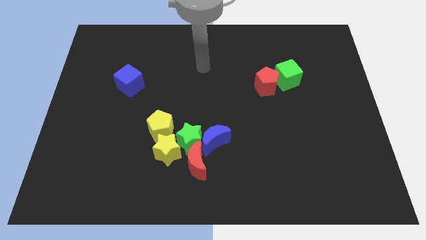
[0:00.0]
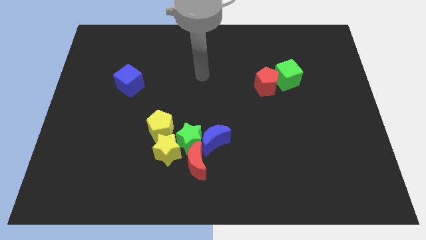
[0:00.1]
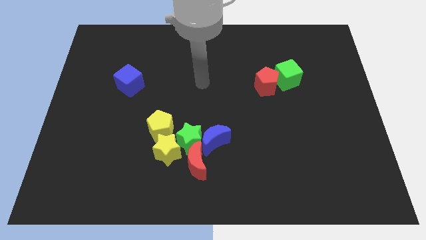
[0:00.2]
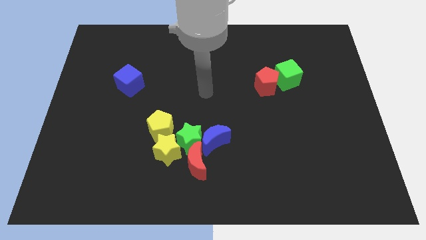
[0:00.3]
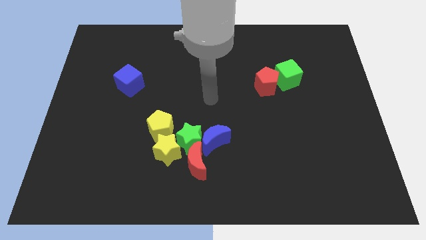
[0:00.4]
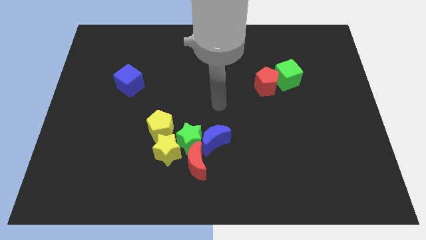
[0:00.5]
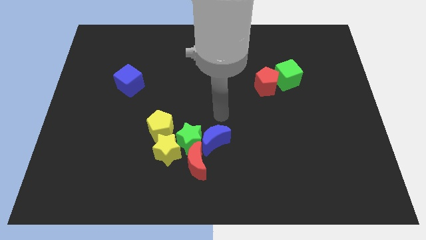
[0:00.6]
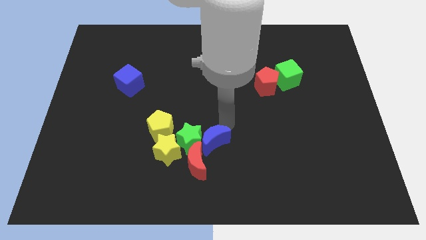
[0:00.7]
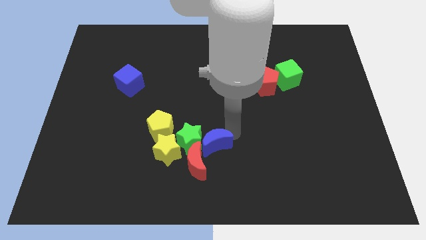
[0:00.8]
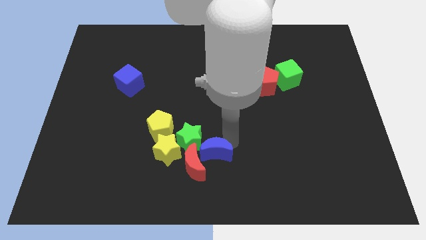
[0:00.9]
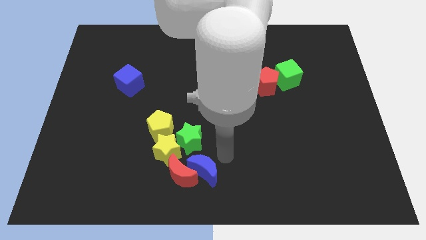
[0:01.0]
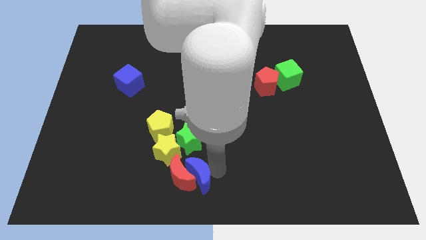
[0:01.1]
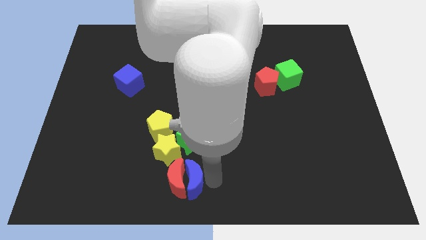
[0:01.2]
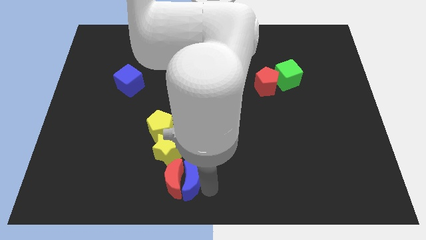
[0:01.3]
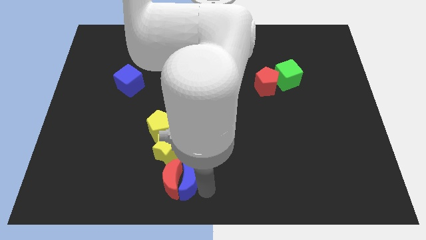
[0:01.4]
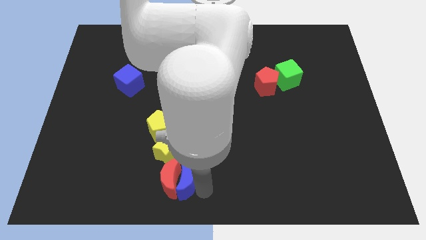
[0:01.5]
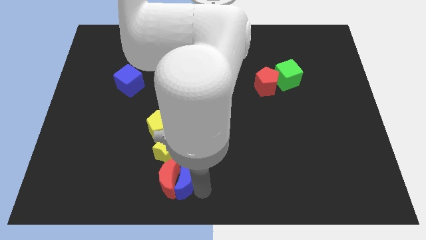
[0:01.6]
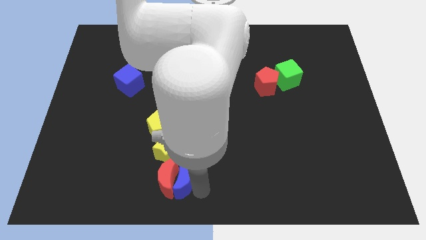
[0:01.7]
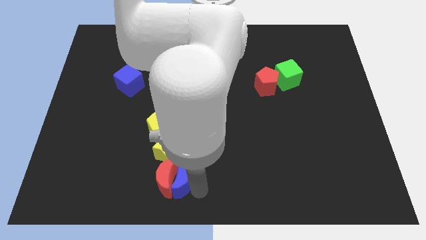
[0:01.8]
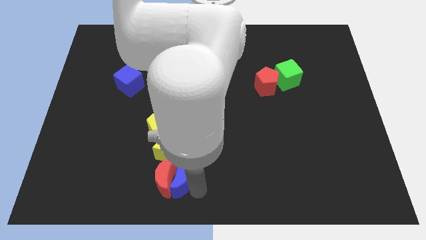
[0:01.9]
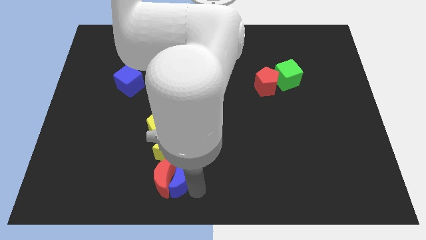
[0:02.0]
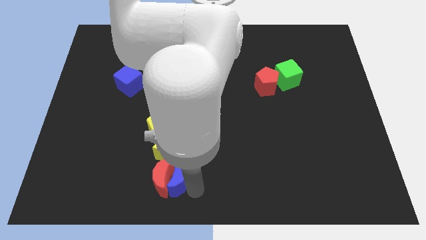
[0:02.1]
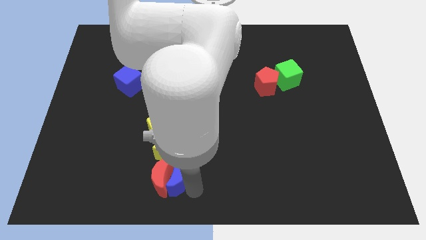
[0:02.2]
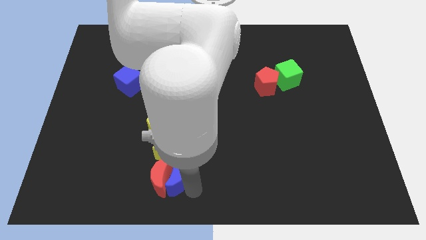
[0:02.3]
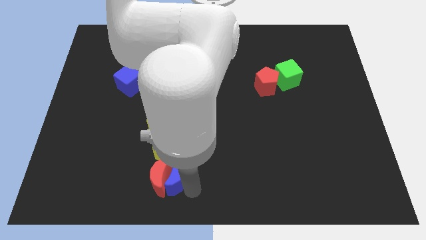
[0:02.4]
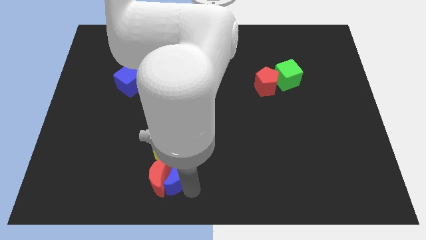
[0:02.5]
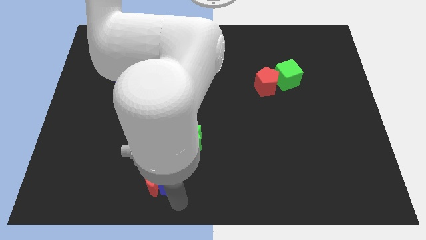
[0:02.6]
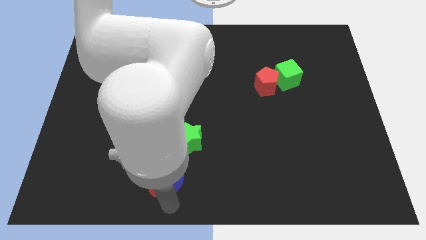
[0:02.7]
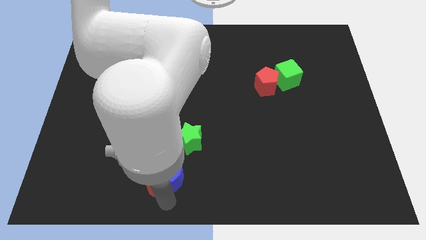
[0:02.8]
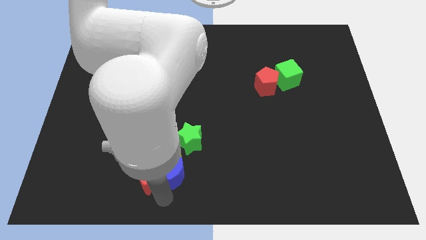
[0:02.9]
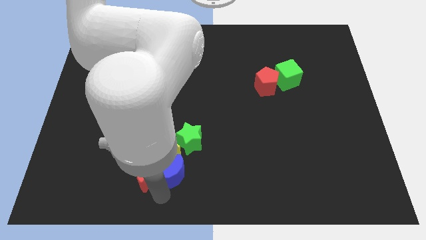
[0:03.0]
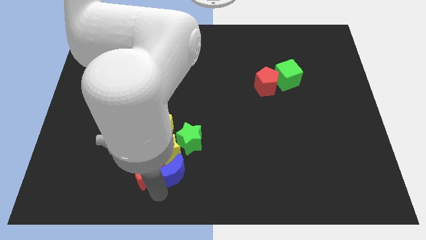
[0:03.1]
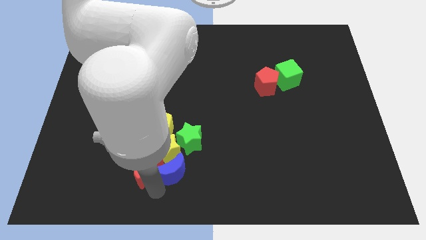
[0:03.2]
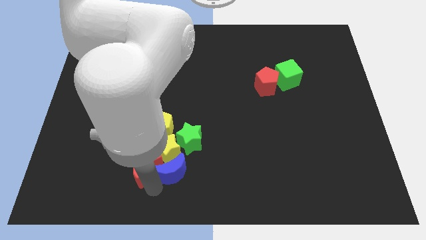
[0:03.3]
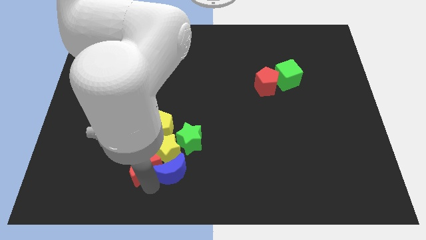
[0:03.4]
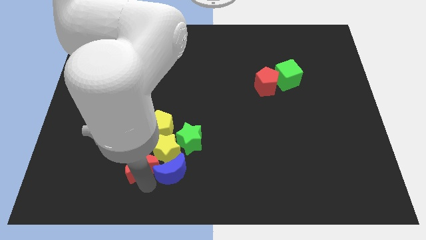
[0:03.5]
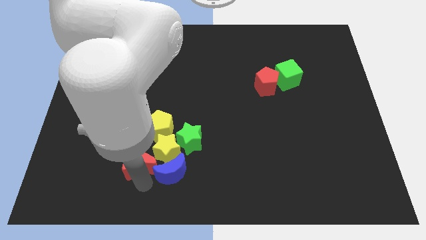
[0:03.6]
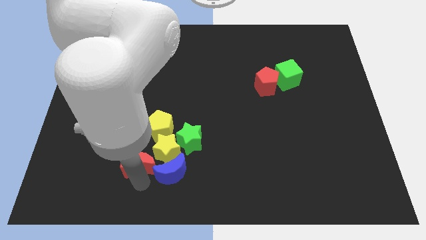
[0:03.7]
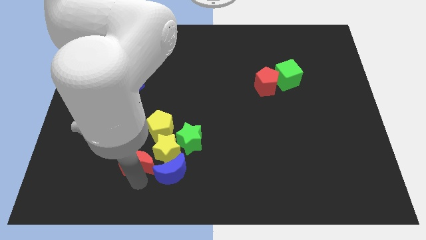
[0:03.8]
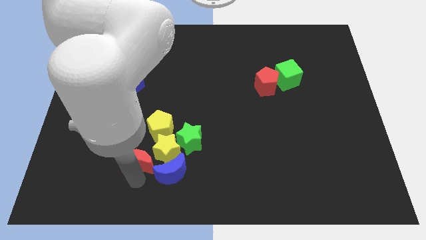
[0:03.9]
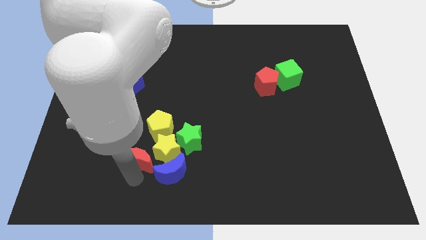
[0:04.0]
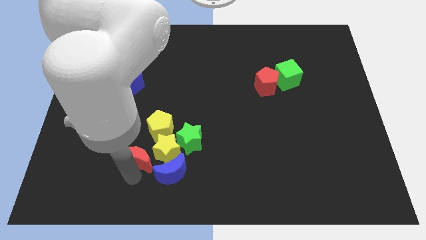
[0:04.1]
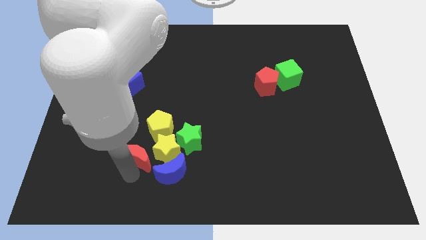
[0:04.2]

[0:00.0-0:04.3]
slightly move the red moon up and then left

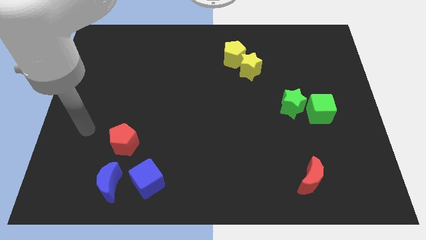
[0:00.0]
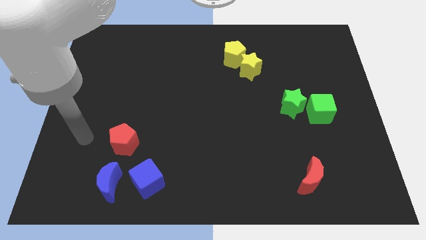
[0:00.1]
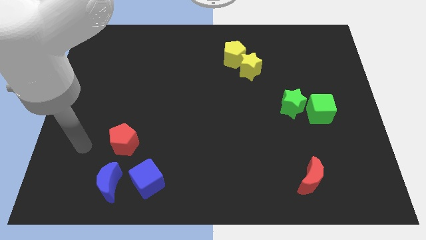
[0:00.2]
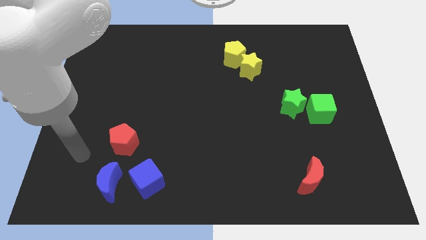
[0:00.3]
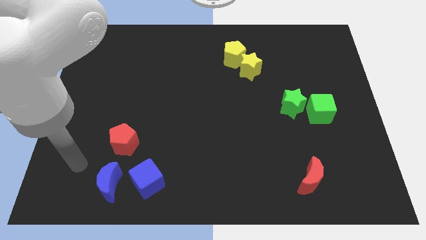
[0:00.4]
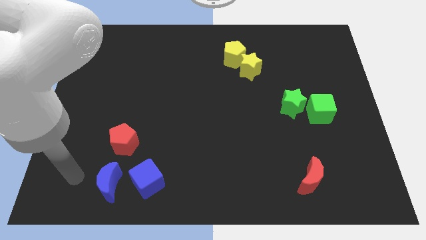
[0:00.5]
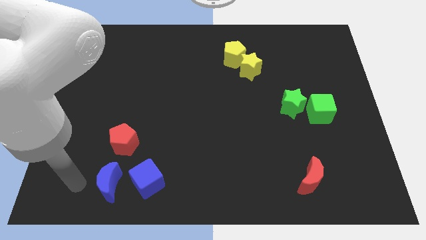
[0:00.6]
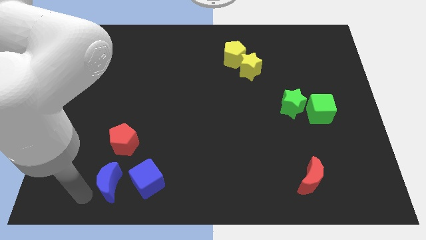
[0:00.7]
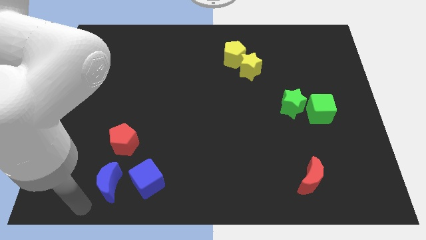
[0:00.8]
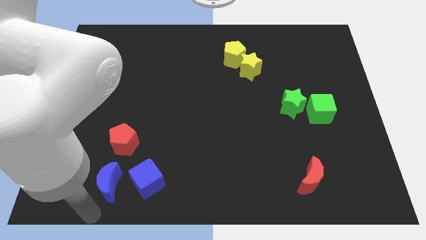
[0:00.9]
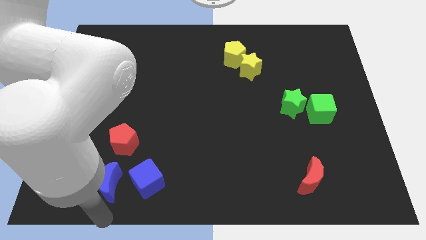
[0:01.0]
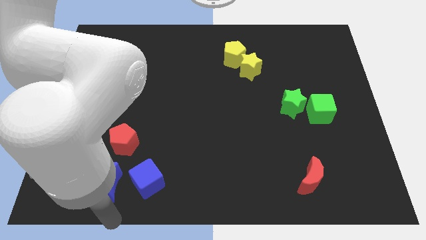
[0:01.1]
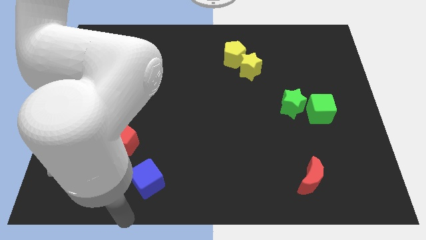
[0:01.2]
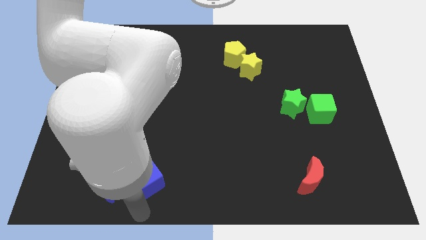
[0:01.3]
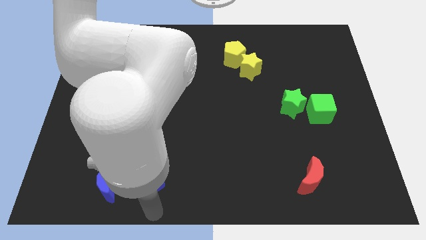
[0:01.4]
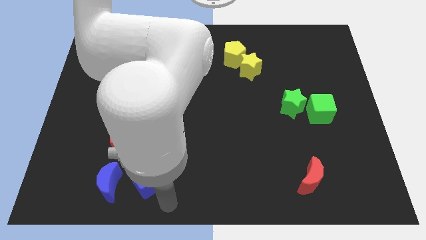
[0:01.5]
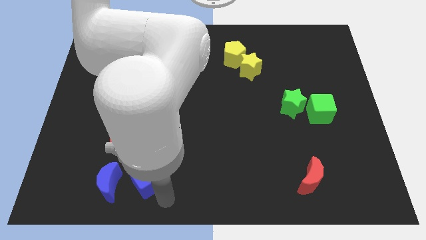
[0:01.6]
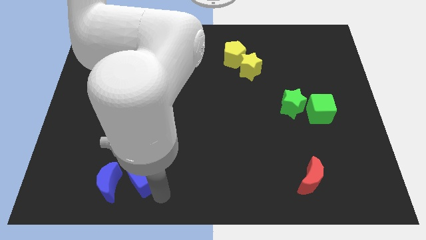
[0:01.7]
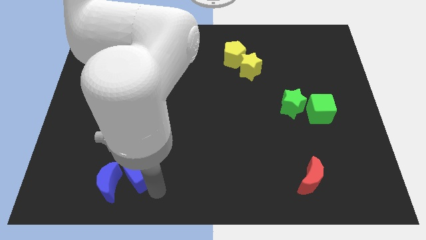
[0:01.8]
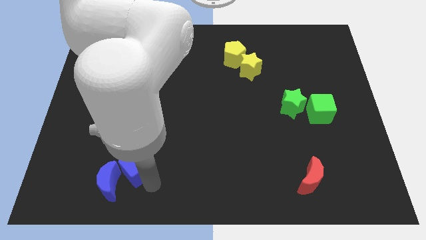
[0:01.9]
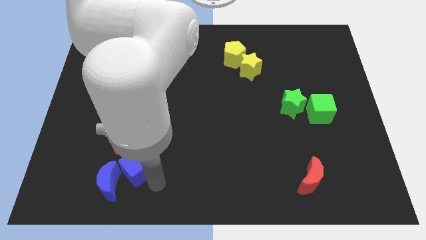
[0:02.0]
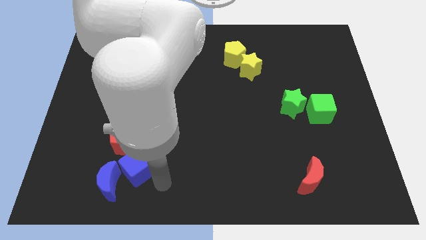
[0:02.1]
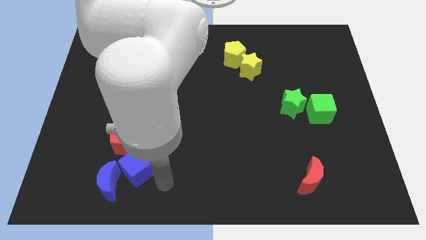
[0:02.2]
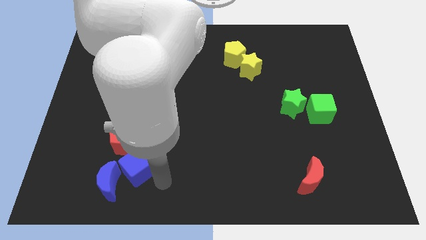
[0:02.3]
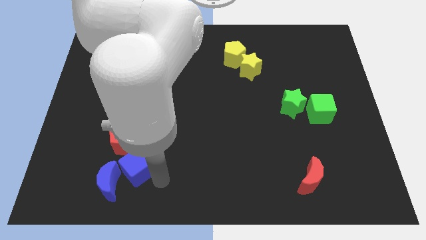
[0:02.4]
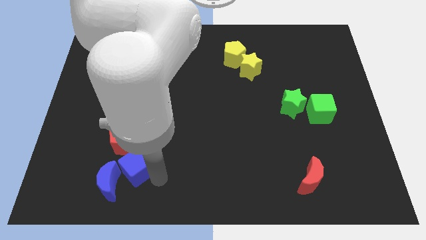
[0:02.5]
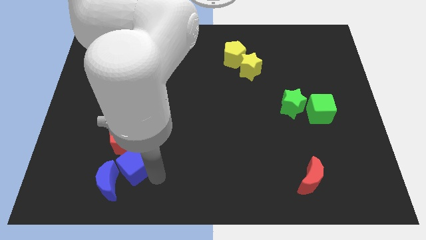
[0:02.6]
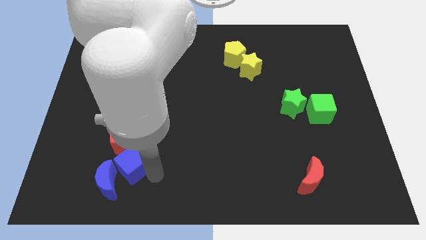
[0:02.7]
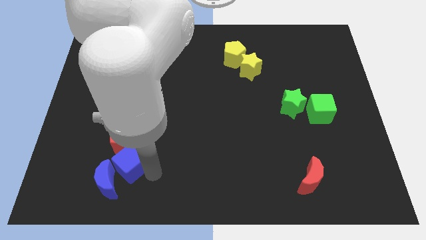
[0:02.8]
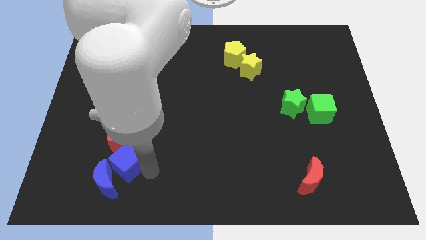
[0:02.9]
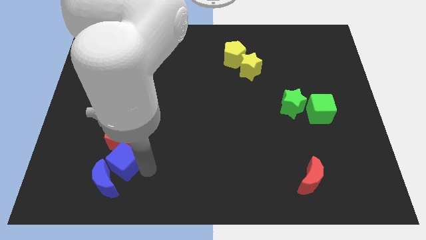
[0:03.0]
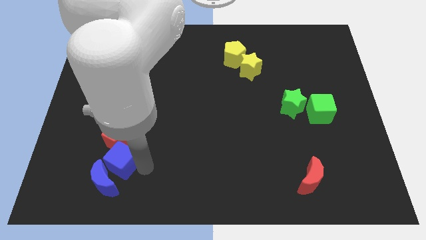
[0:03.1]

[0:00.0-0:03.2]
move the blue cube upwards and to the left slightly

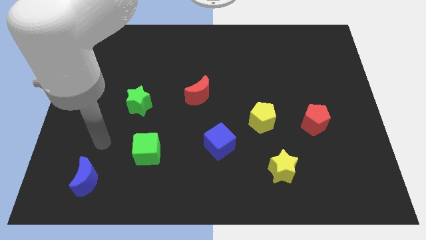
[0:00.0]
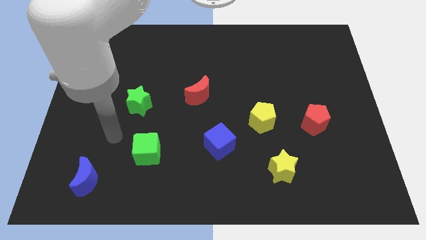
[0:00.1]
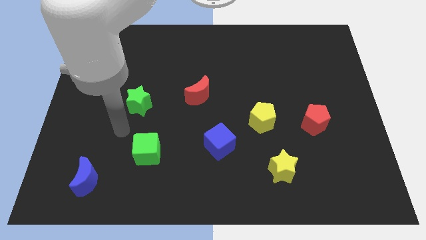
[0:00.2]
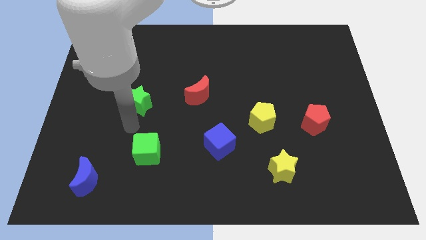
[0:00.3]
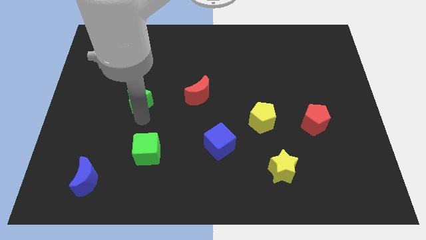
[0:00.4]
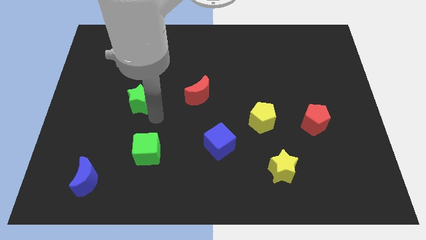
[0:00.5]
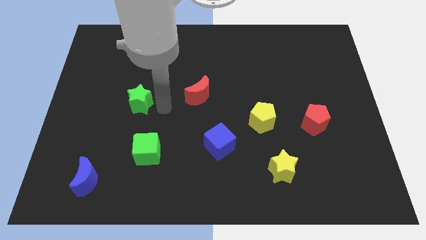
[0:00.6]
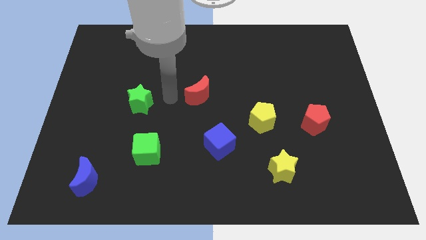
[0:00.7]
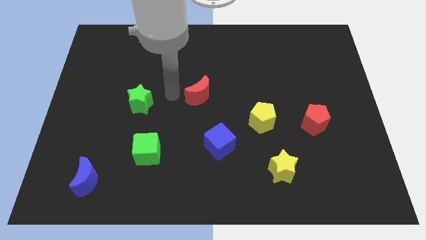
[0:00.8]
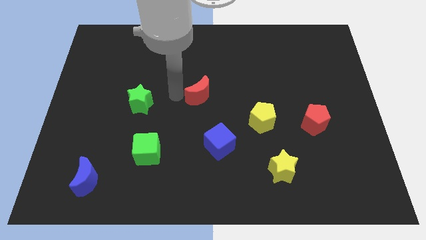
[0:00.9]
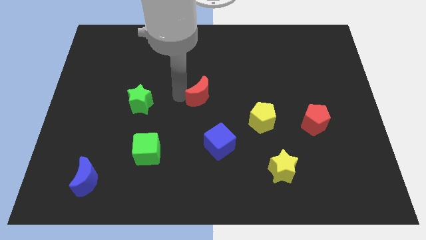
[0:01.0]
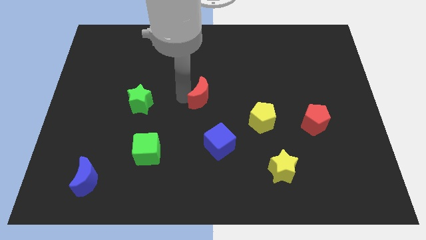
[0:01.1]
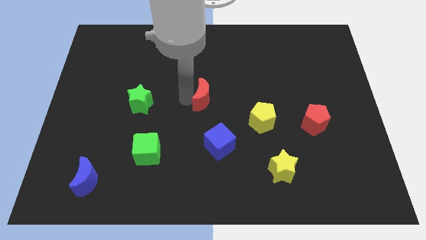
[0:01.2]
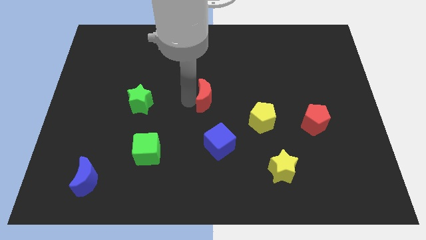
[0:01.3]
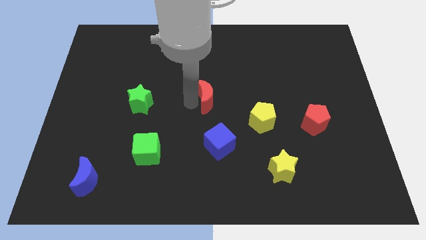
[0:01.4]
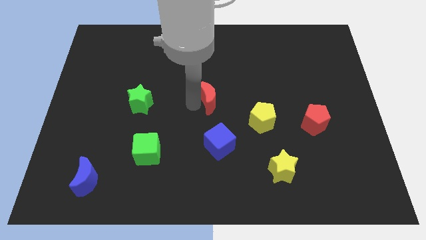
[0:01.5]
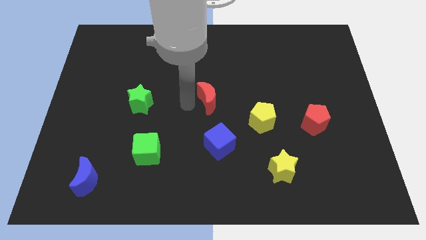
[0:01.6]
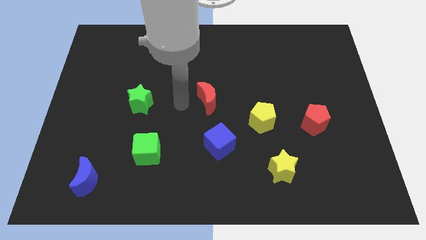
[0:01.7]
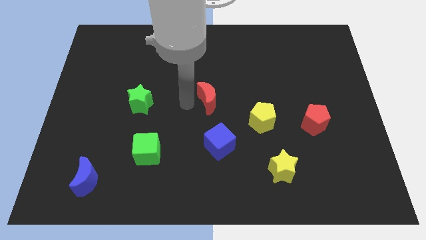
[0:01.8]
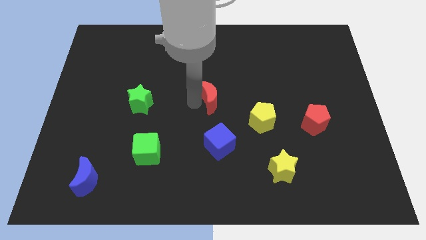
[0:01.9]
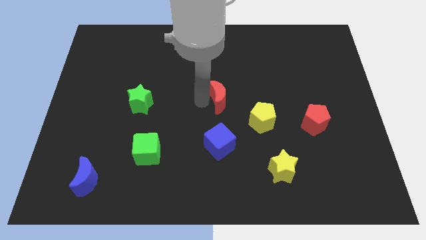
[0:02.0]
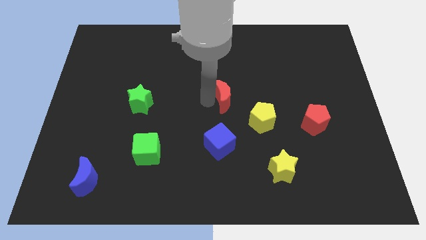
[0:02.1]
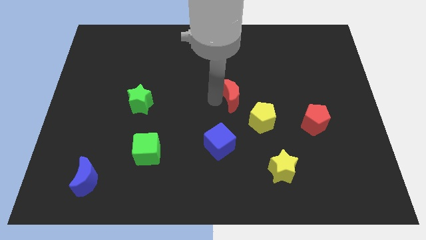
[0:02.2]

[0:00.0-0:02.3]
push the red moon to the right a bit
